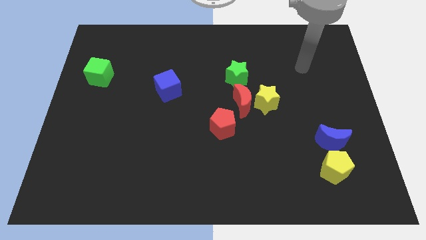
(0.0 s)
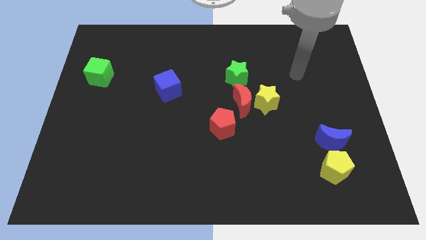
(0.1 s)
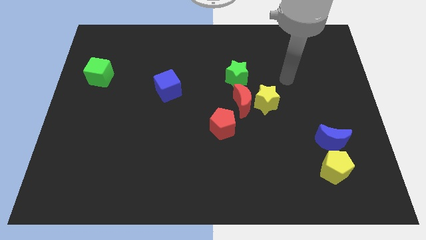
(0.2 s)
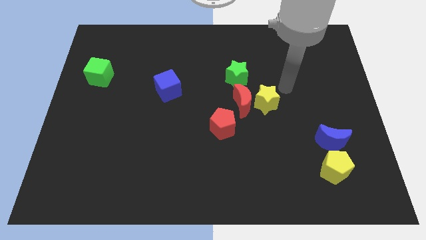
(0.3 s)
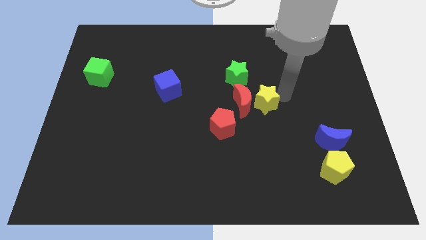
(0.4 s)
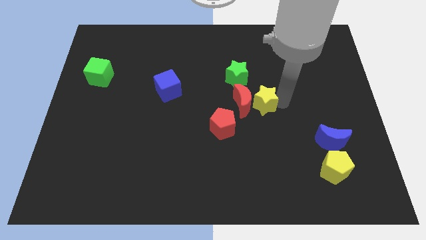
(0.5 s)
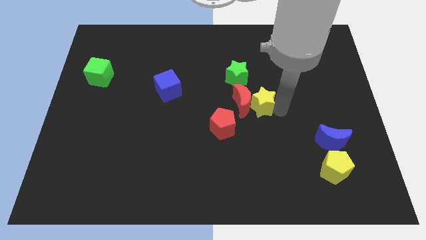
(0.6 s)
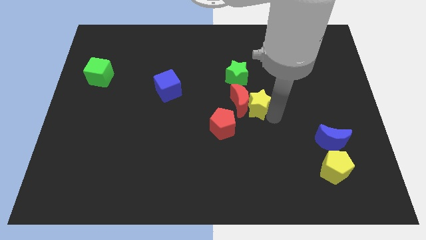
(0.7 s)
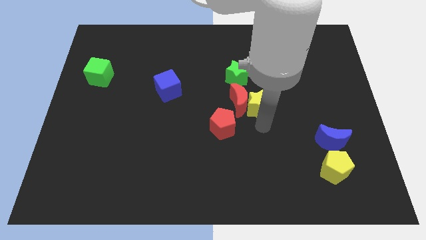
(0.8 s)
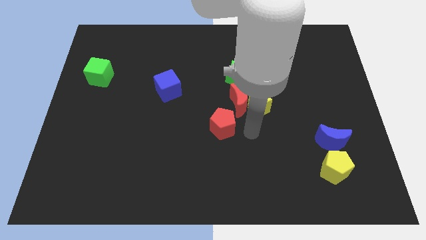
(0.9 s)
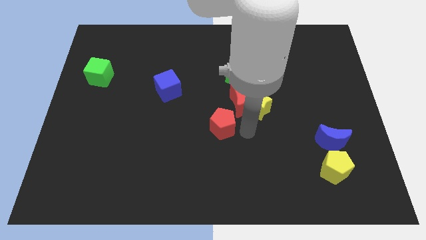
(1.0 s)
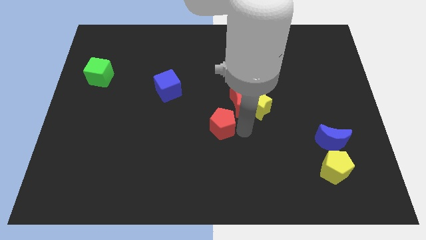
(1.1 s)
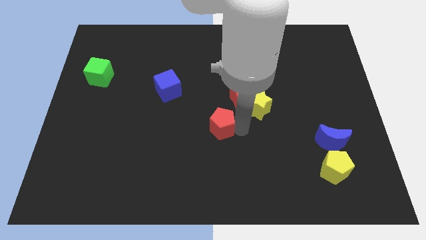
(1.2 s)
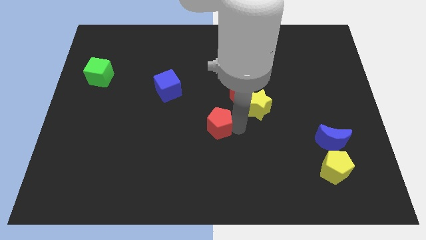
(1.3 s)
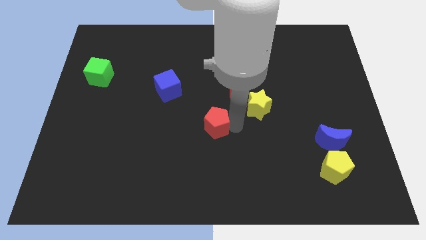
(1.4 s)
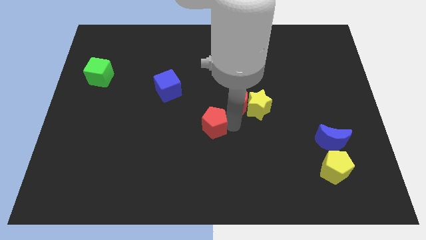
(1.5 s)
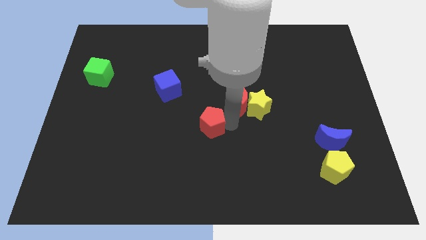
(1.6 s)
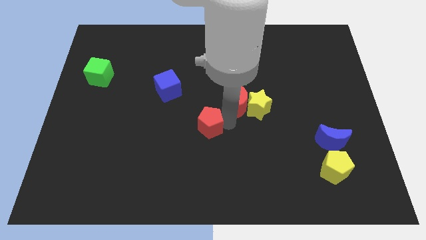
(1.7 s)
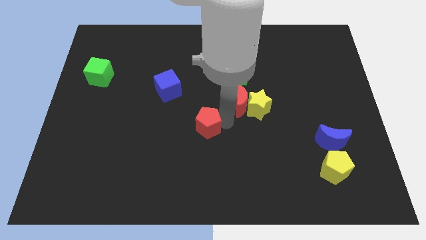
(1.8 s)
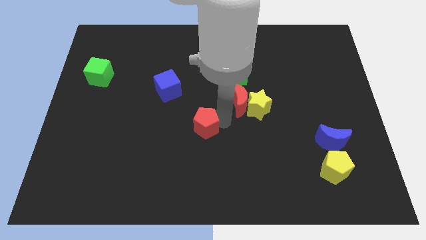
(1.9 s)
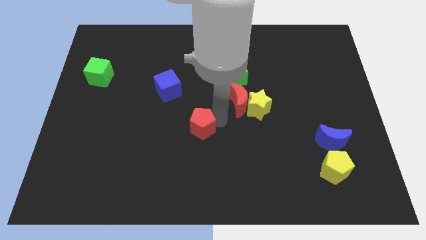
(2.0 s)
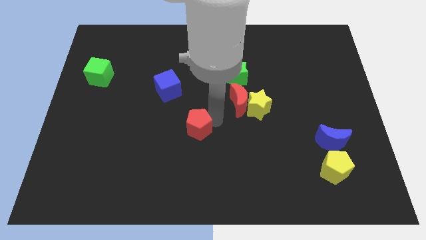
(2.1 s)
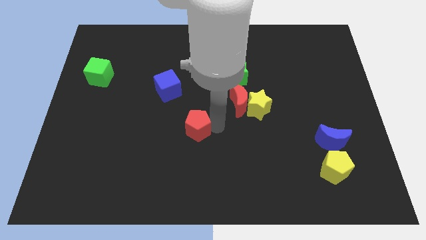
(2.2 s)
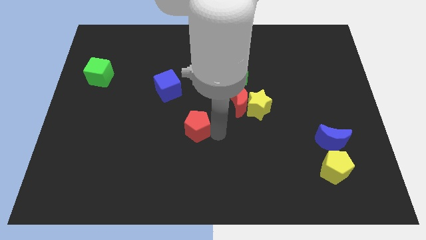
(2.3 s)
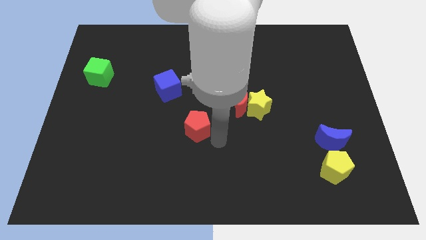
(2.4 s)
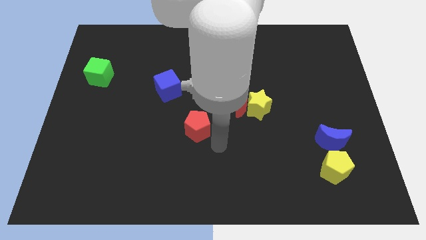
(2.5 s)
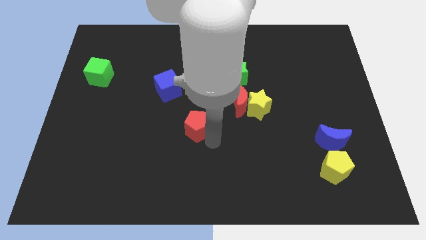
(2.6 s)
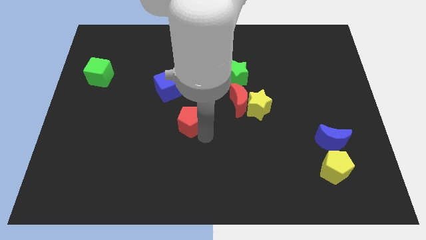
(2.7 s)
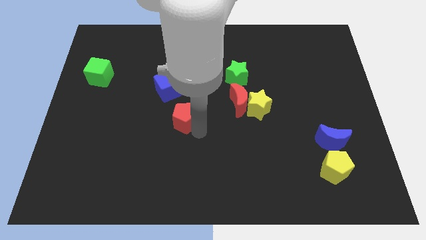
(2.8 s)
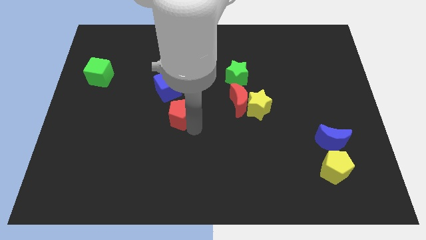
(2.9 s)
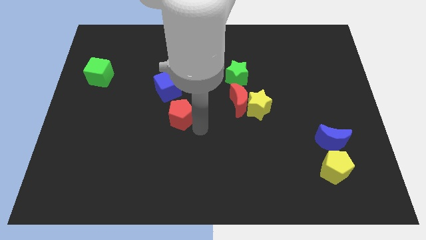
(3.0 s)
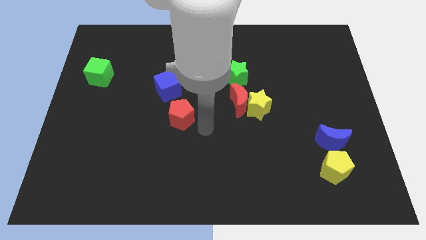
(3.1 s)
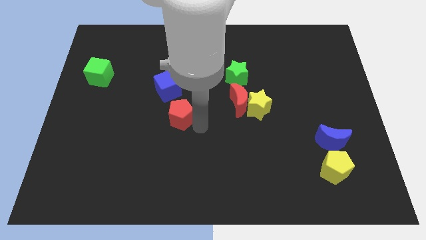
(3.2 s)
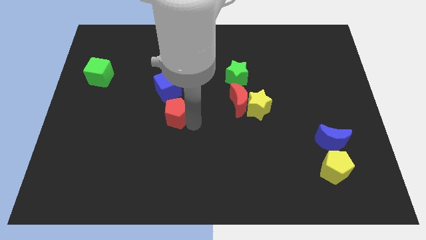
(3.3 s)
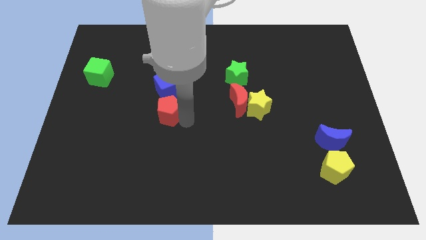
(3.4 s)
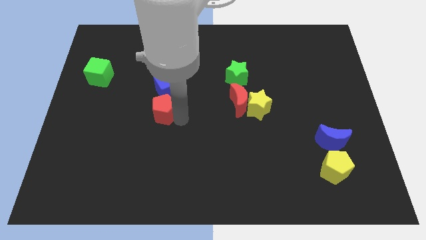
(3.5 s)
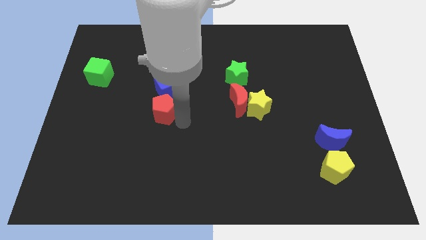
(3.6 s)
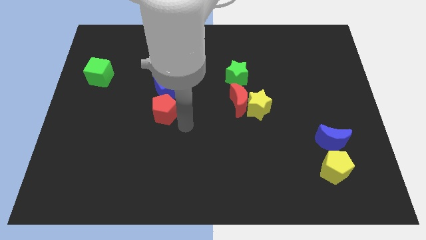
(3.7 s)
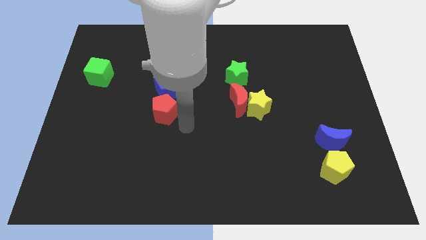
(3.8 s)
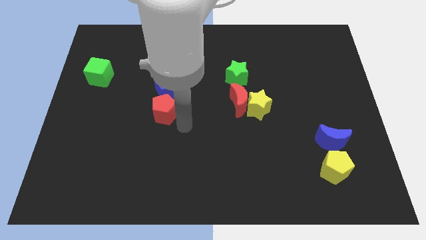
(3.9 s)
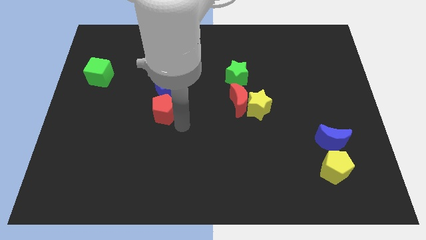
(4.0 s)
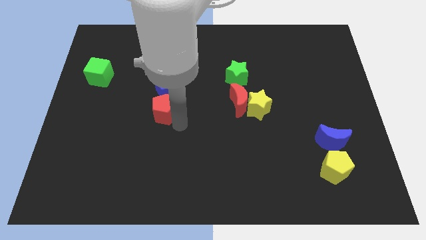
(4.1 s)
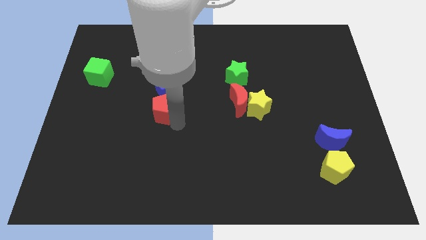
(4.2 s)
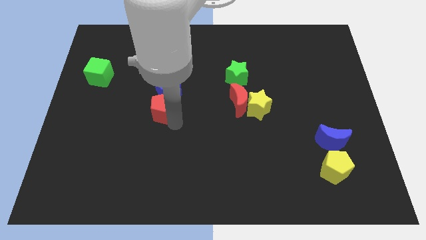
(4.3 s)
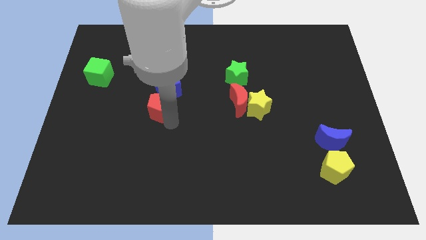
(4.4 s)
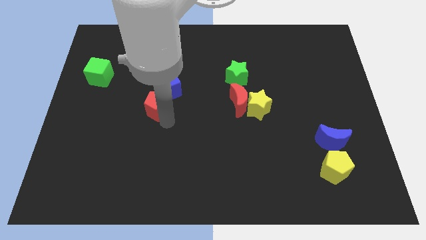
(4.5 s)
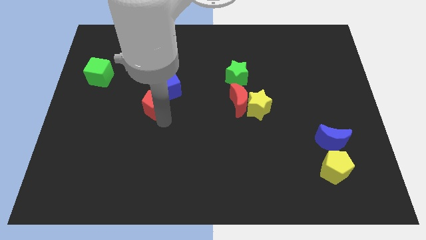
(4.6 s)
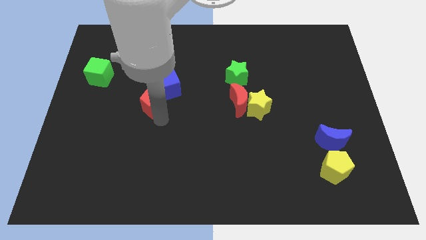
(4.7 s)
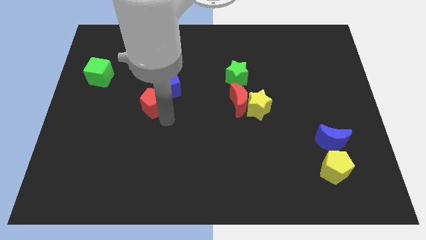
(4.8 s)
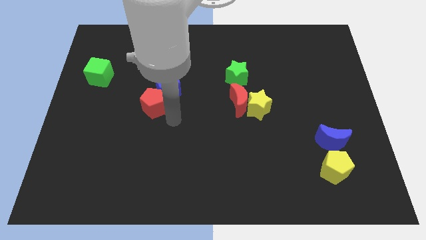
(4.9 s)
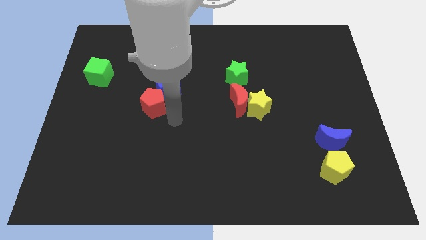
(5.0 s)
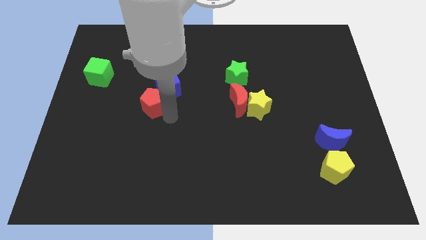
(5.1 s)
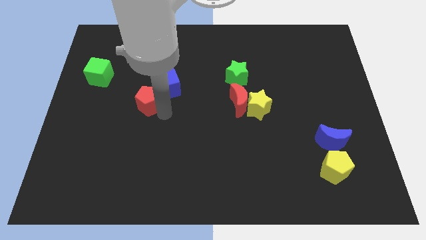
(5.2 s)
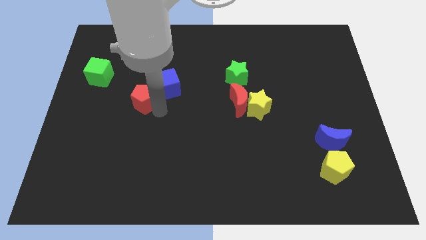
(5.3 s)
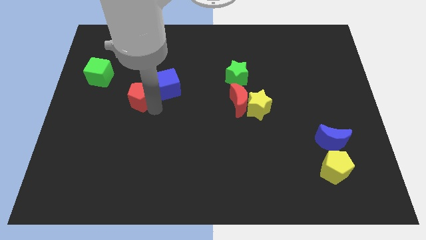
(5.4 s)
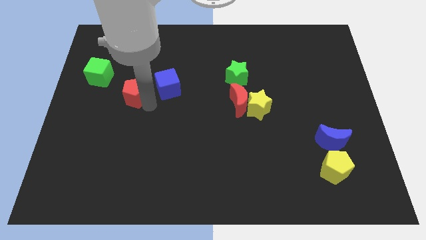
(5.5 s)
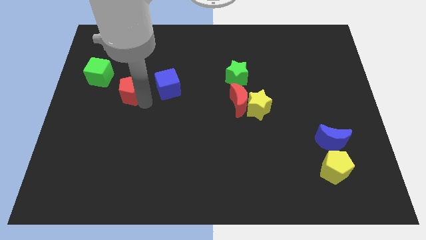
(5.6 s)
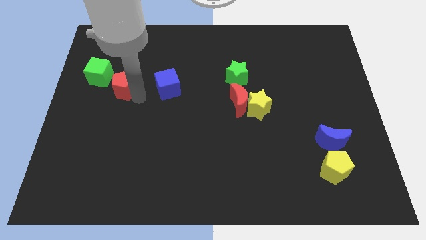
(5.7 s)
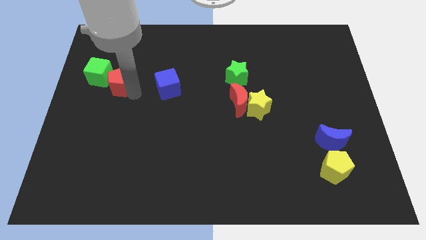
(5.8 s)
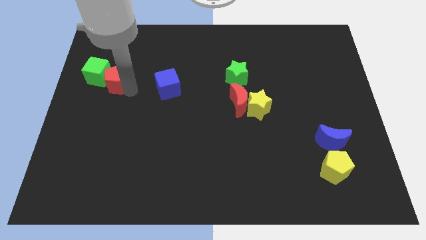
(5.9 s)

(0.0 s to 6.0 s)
put the red pentagon towards the green cube

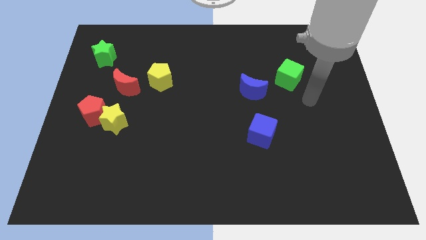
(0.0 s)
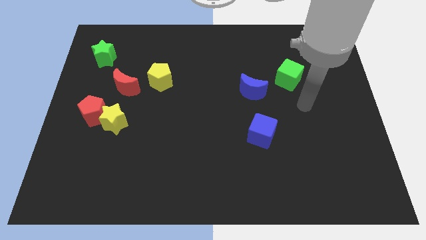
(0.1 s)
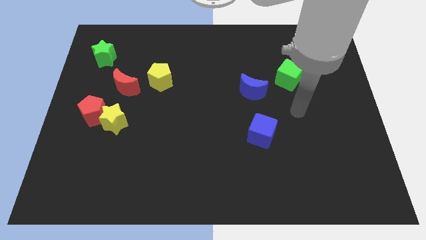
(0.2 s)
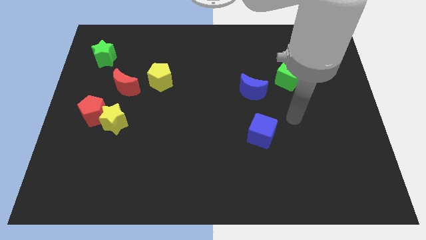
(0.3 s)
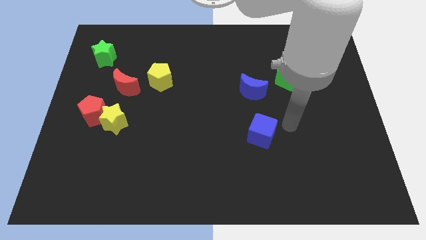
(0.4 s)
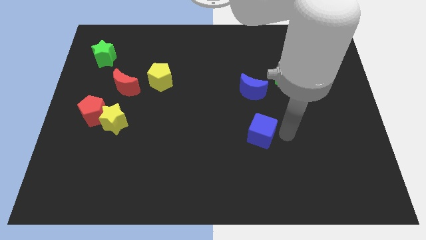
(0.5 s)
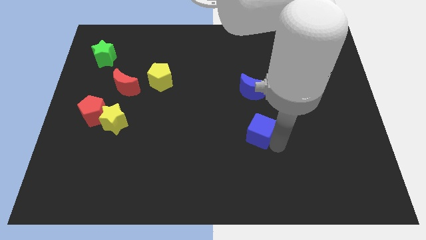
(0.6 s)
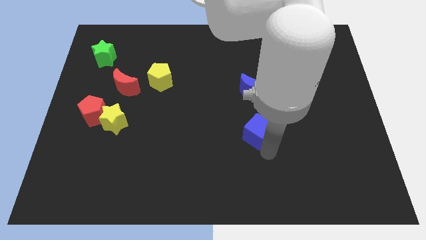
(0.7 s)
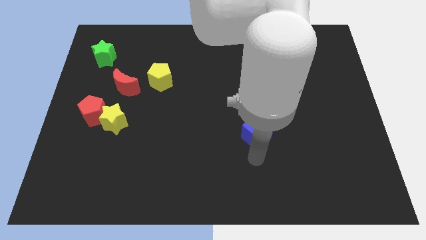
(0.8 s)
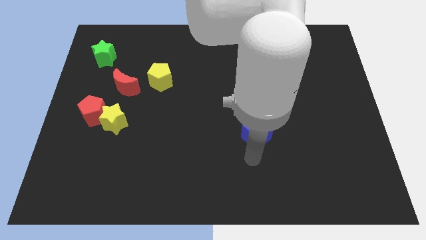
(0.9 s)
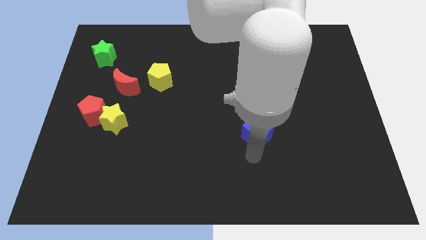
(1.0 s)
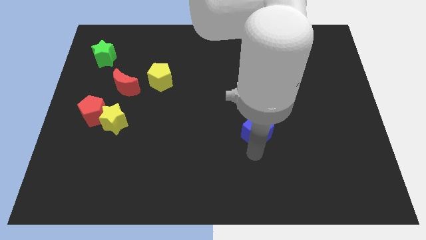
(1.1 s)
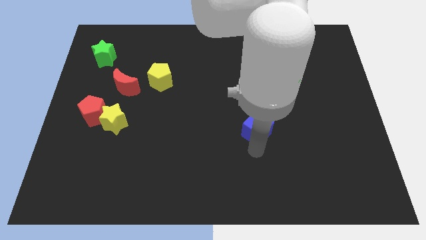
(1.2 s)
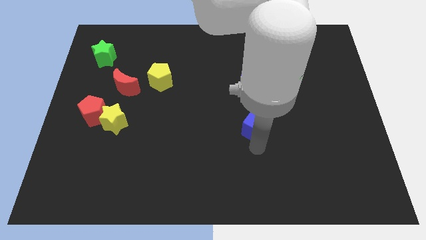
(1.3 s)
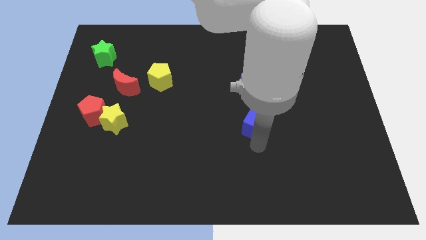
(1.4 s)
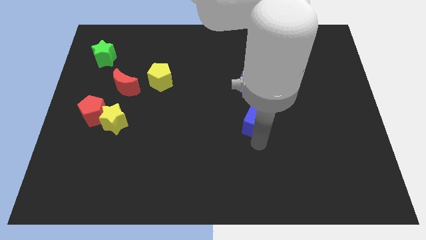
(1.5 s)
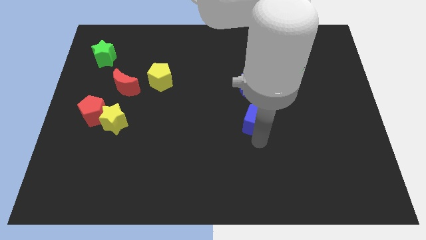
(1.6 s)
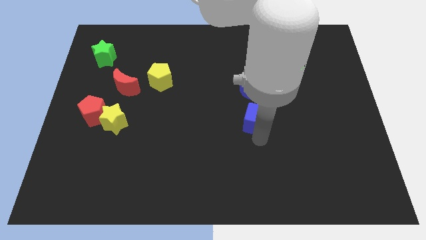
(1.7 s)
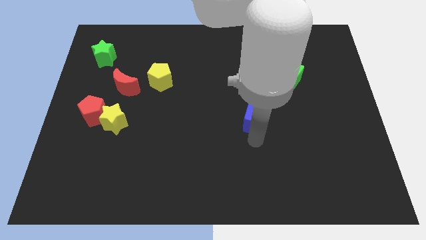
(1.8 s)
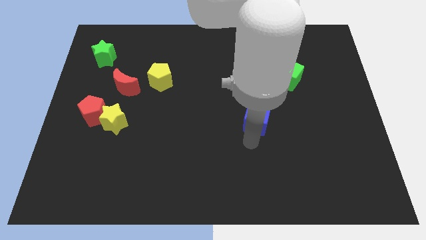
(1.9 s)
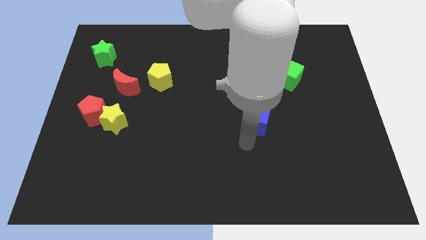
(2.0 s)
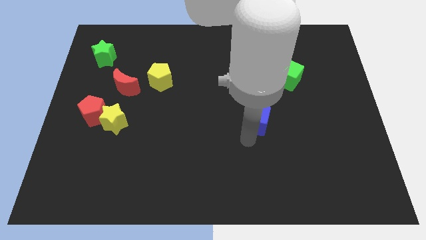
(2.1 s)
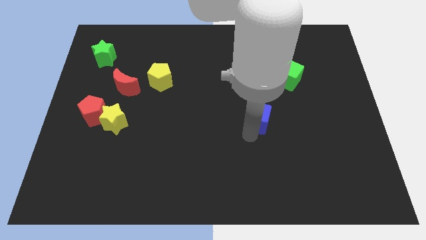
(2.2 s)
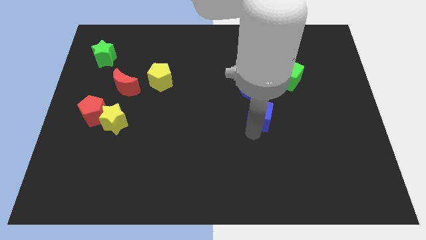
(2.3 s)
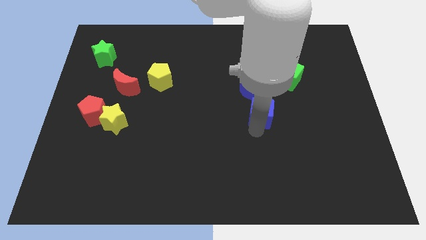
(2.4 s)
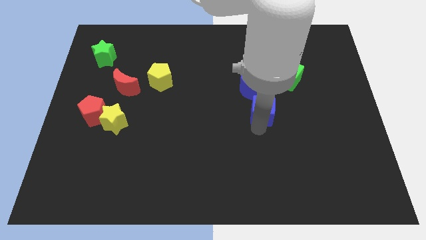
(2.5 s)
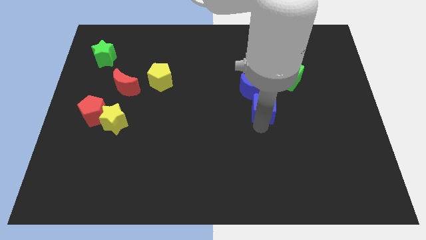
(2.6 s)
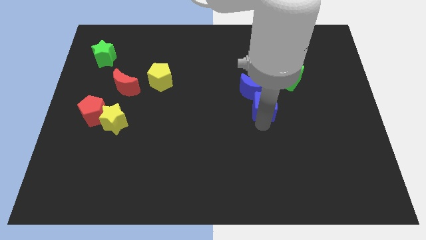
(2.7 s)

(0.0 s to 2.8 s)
push the blue cube close to the blue moon
